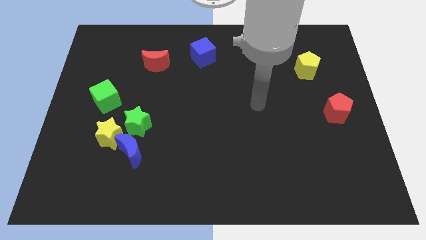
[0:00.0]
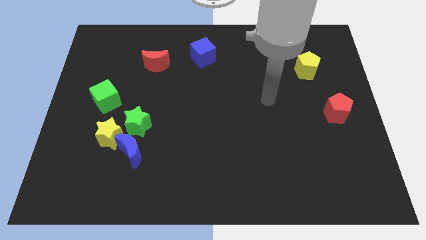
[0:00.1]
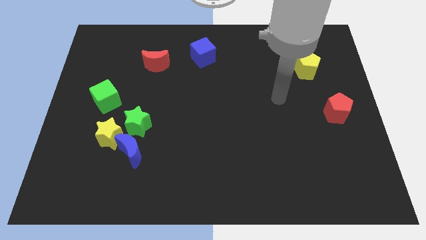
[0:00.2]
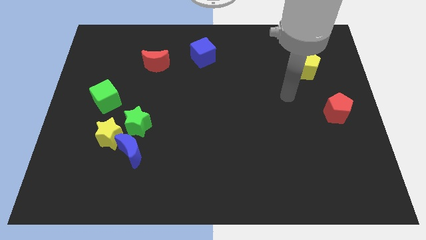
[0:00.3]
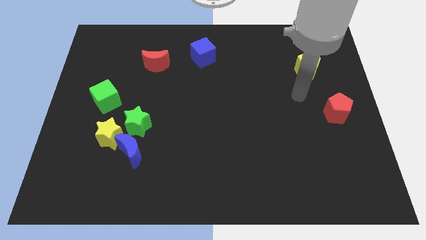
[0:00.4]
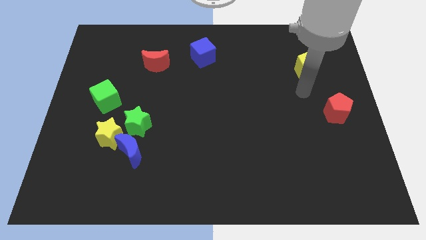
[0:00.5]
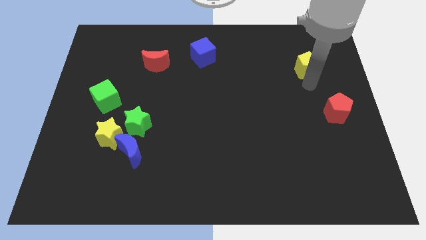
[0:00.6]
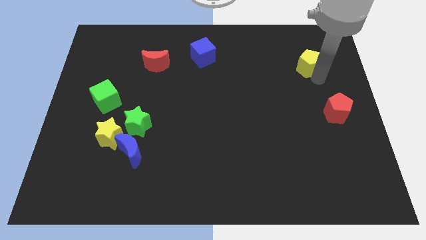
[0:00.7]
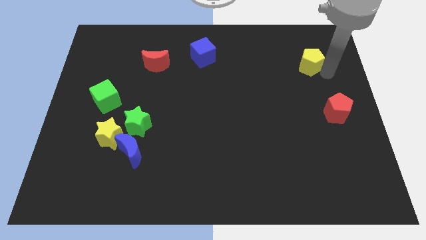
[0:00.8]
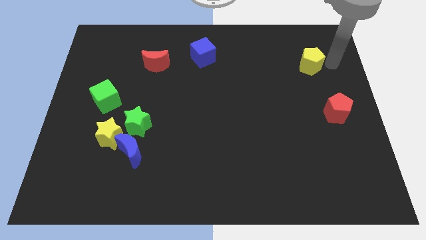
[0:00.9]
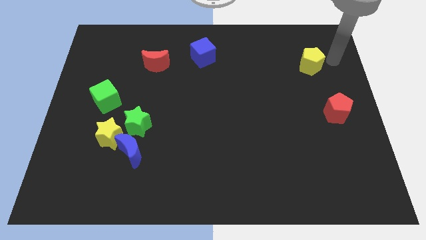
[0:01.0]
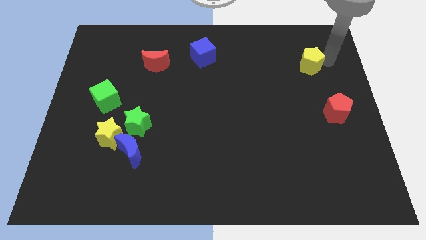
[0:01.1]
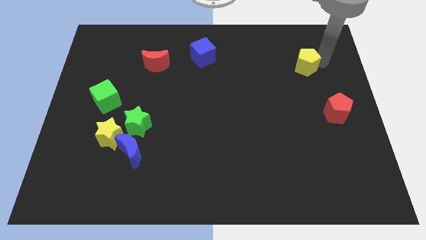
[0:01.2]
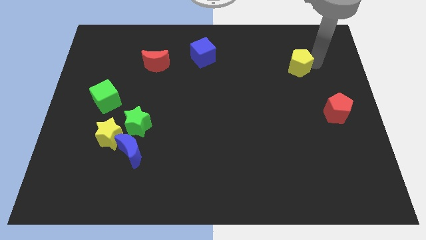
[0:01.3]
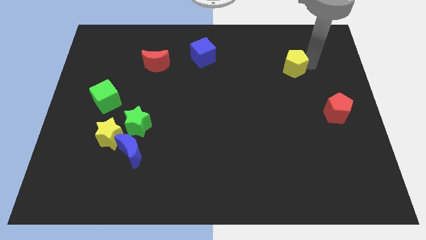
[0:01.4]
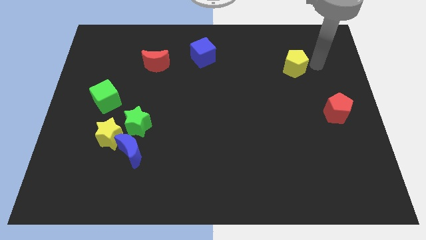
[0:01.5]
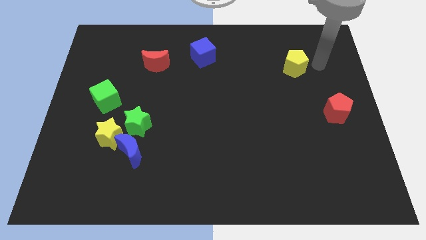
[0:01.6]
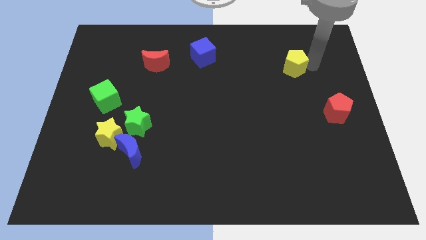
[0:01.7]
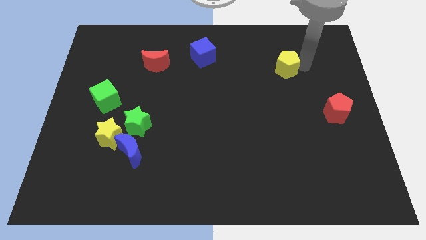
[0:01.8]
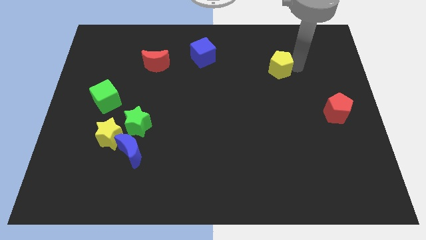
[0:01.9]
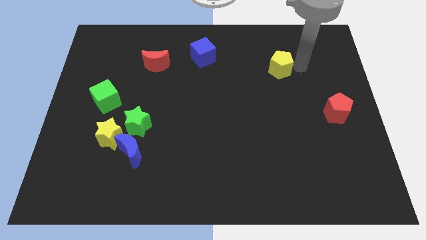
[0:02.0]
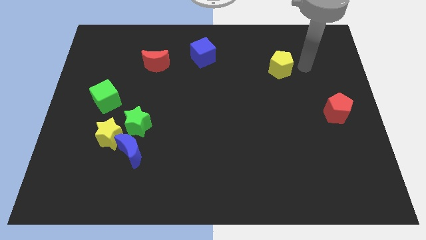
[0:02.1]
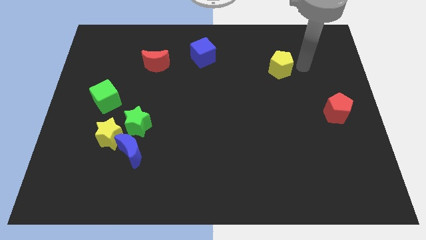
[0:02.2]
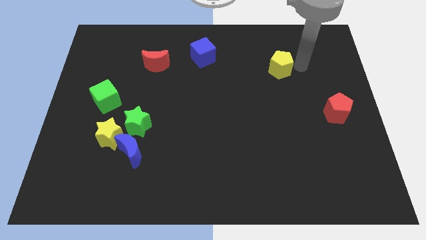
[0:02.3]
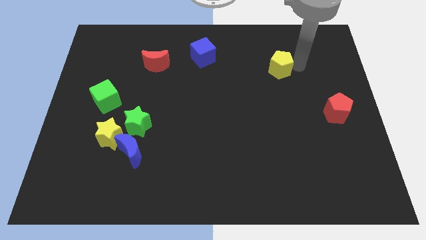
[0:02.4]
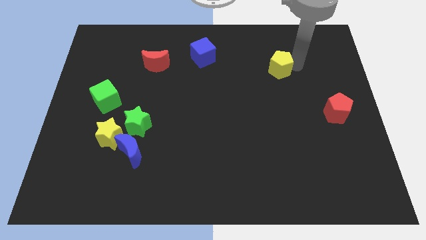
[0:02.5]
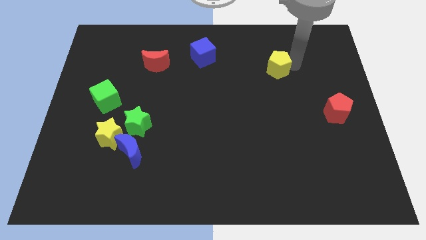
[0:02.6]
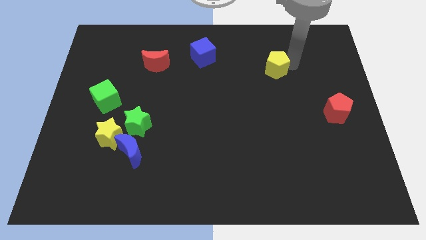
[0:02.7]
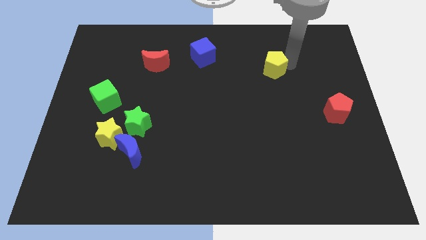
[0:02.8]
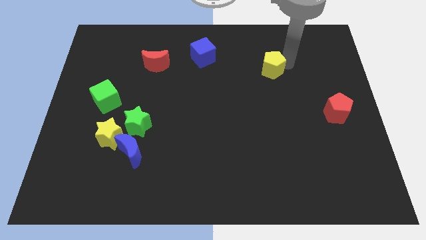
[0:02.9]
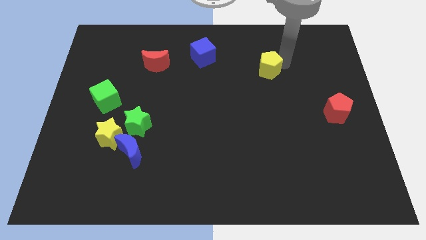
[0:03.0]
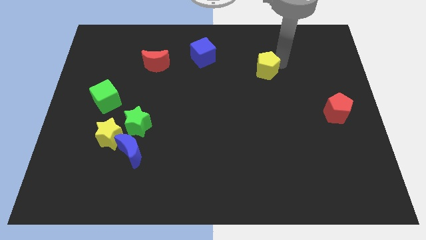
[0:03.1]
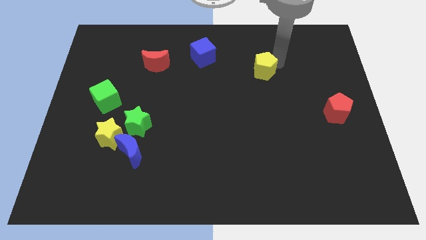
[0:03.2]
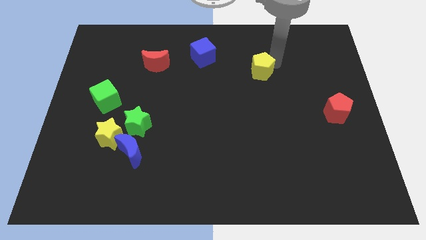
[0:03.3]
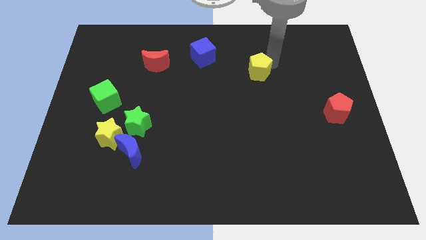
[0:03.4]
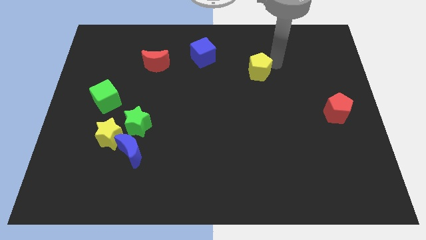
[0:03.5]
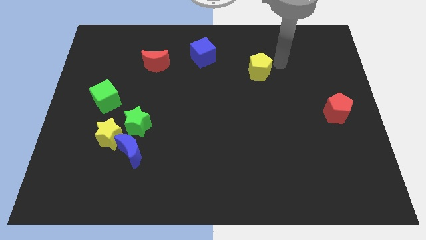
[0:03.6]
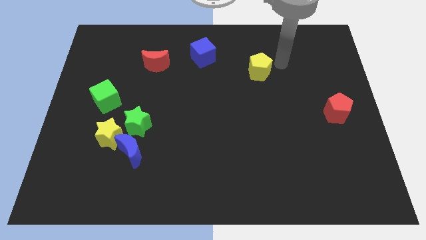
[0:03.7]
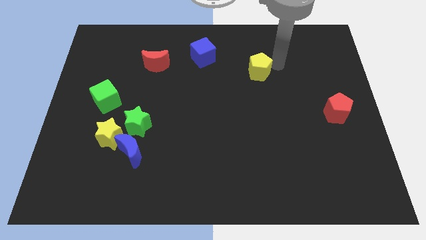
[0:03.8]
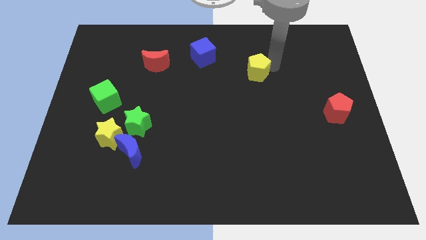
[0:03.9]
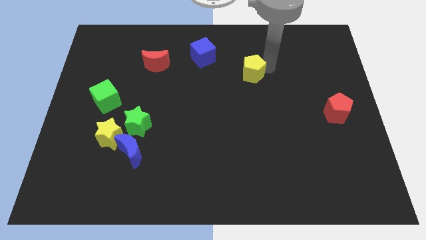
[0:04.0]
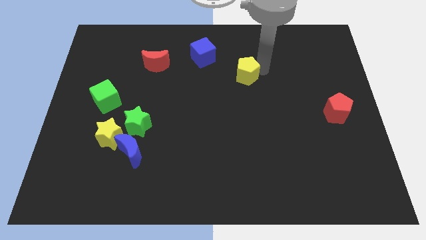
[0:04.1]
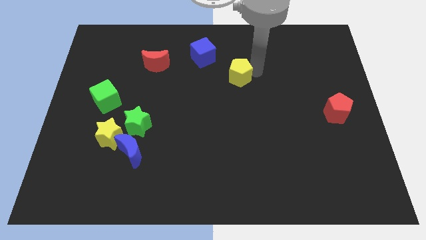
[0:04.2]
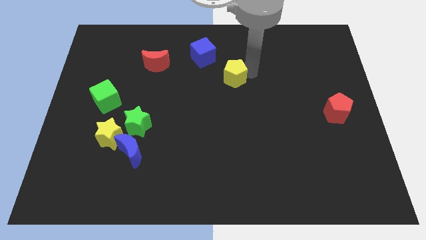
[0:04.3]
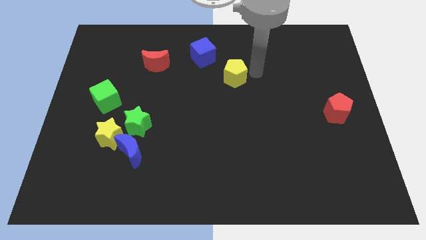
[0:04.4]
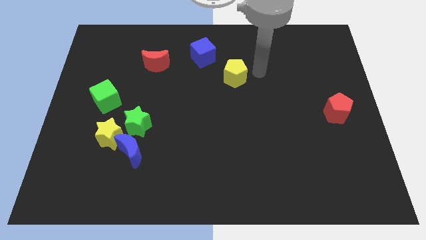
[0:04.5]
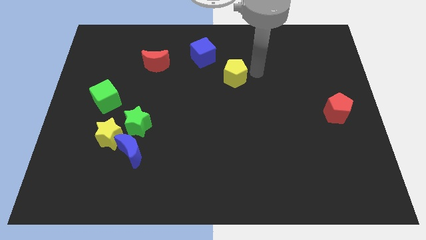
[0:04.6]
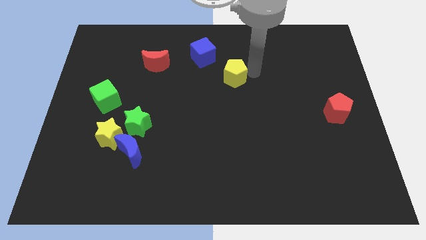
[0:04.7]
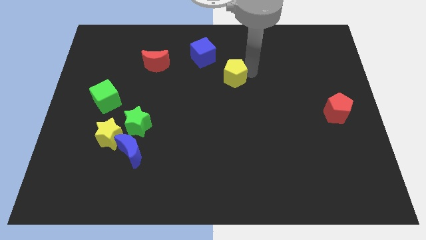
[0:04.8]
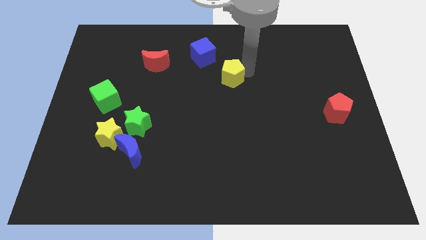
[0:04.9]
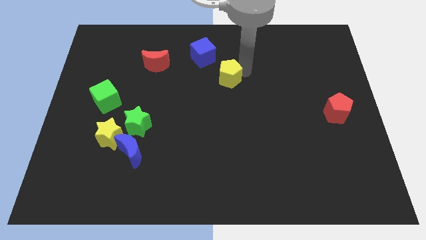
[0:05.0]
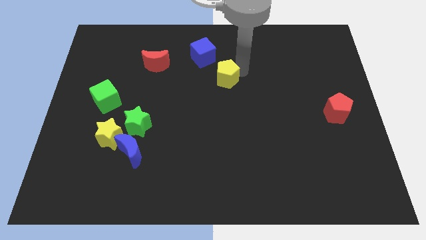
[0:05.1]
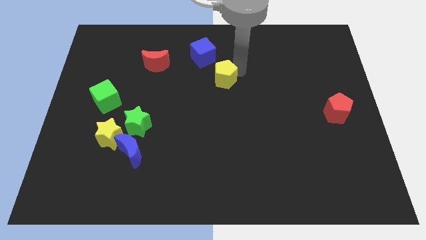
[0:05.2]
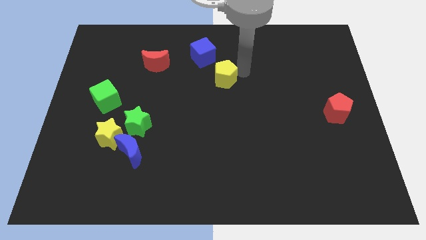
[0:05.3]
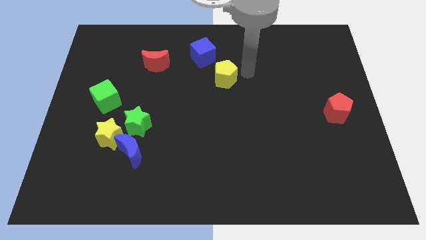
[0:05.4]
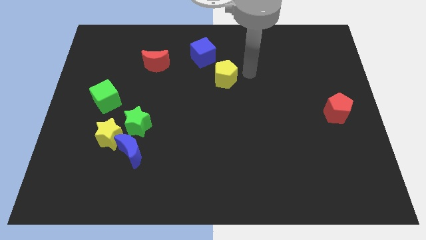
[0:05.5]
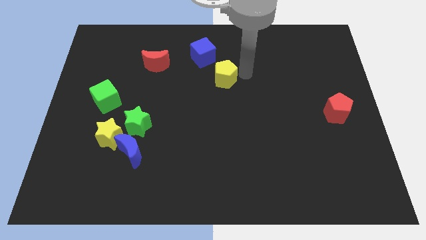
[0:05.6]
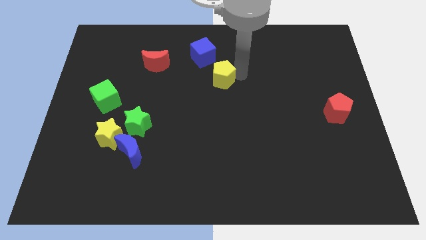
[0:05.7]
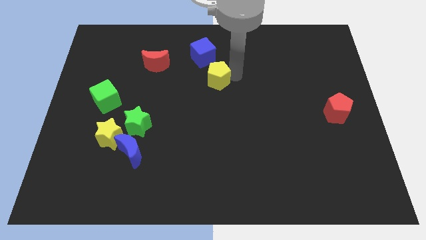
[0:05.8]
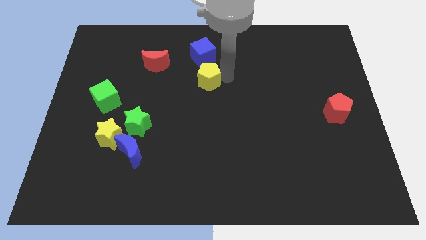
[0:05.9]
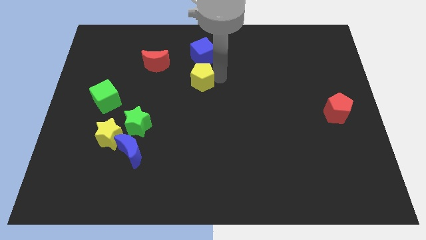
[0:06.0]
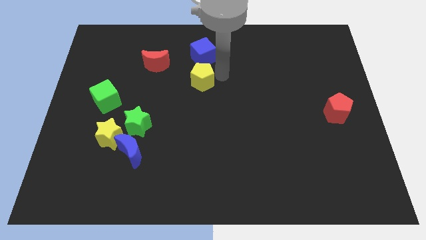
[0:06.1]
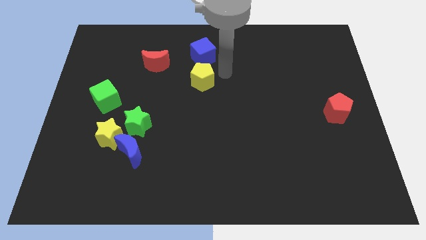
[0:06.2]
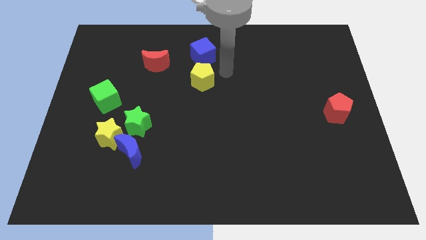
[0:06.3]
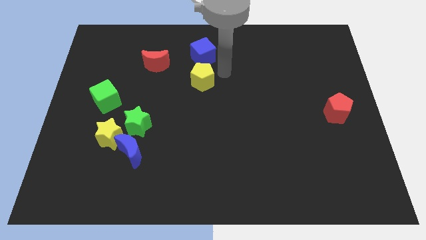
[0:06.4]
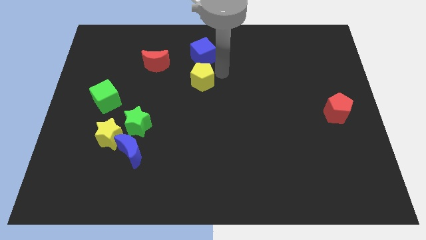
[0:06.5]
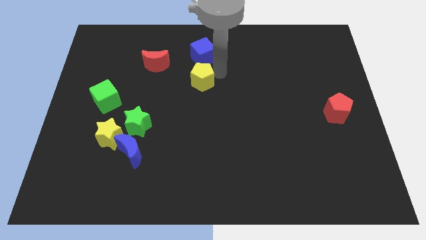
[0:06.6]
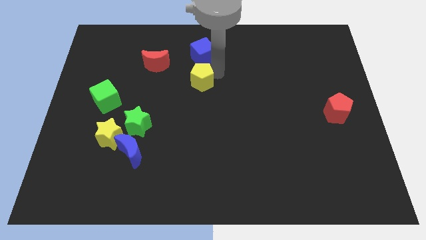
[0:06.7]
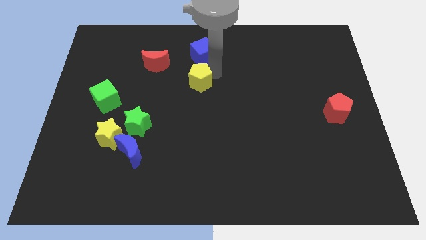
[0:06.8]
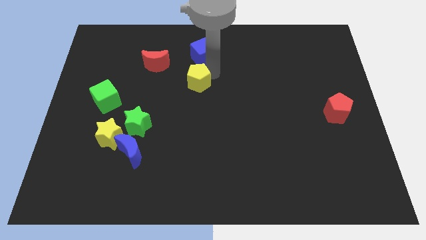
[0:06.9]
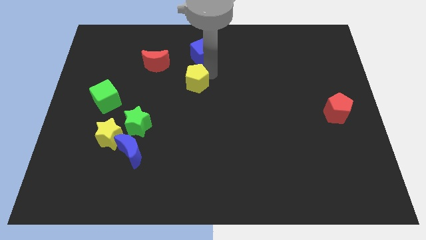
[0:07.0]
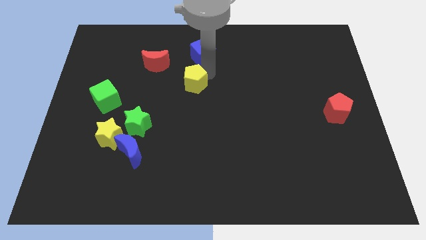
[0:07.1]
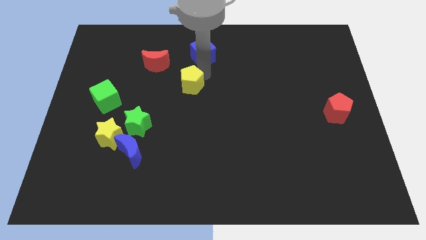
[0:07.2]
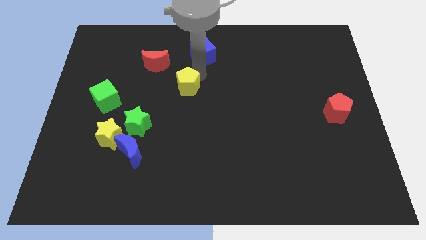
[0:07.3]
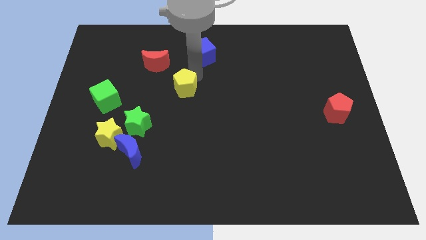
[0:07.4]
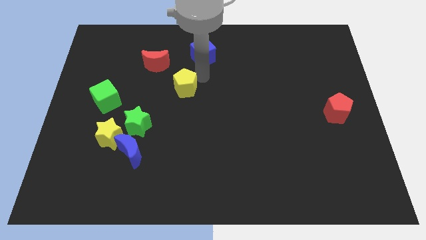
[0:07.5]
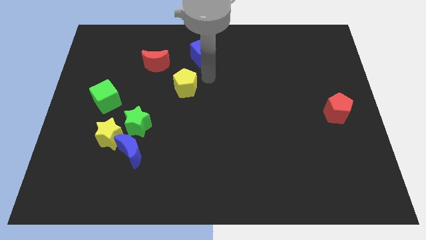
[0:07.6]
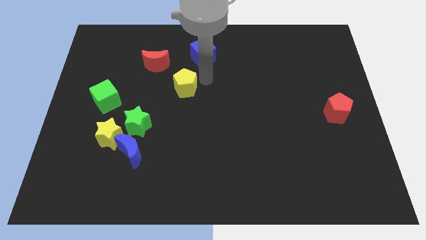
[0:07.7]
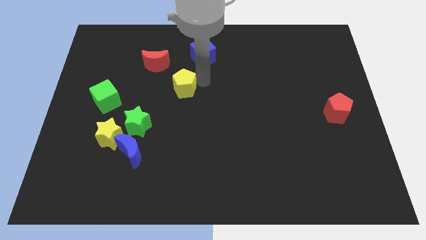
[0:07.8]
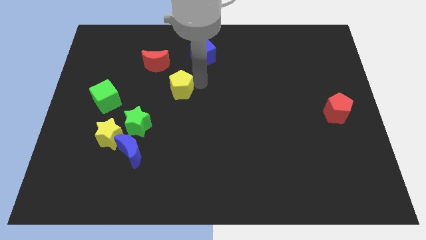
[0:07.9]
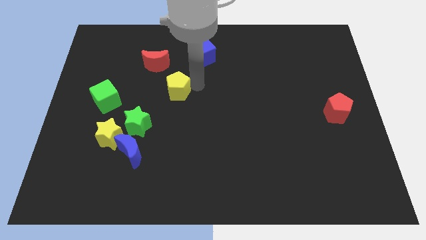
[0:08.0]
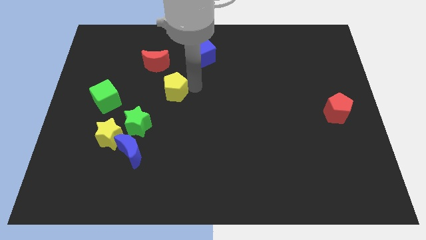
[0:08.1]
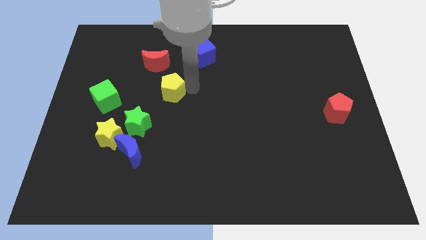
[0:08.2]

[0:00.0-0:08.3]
move the yellow pentagon just right of the green cube
